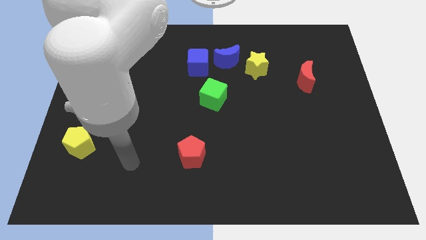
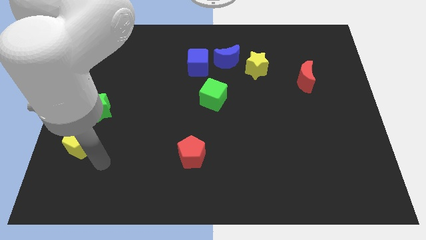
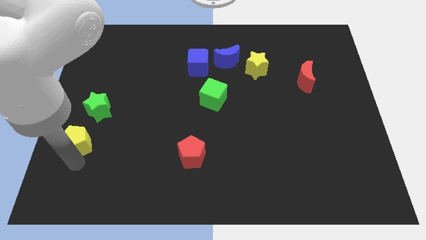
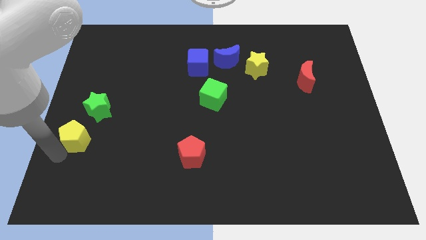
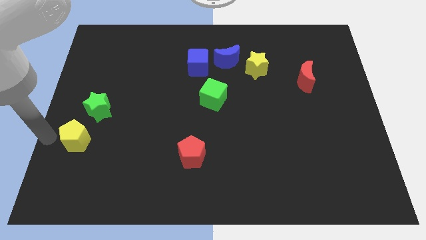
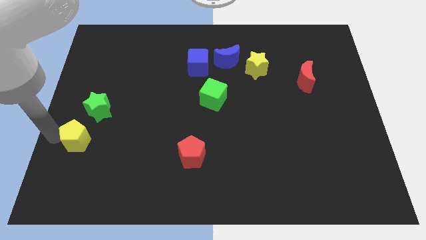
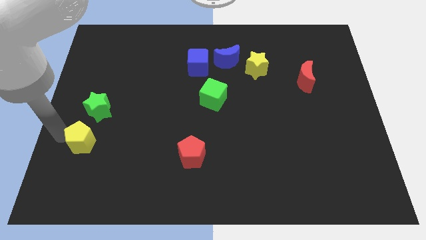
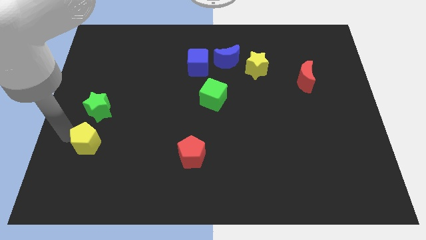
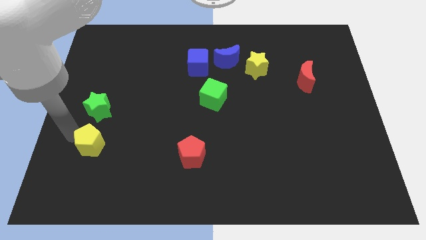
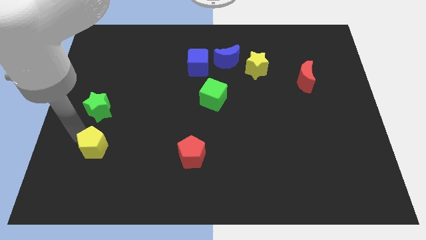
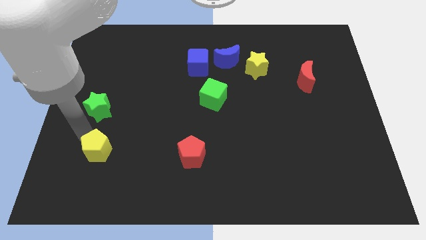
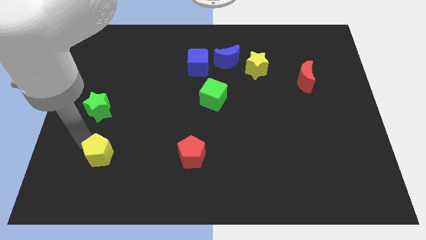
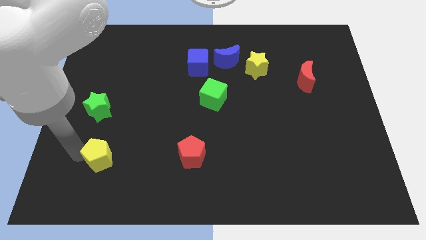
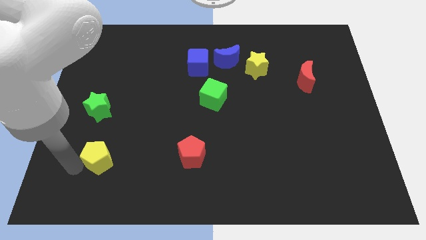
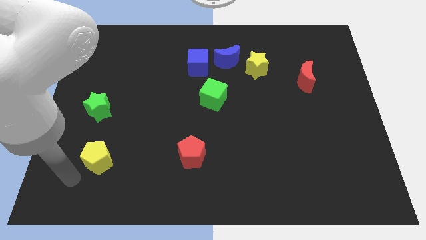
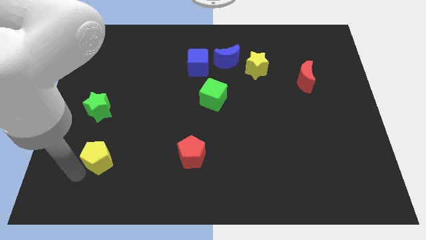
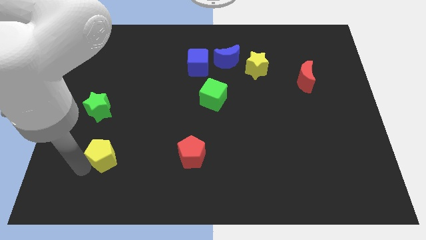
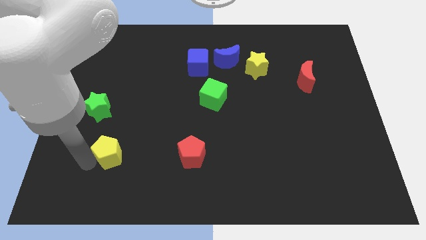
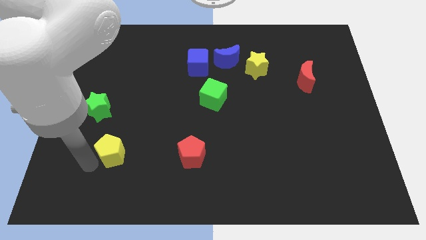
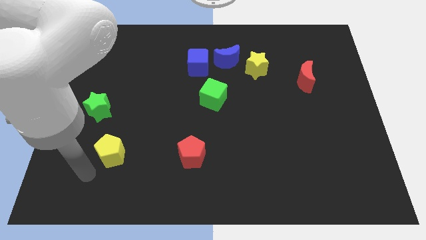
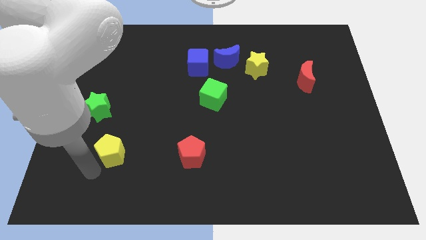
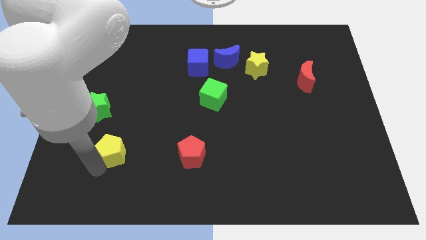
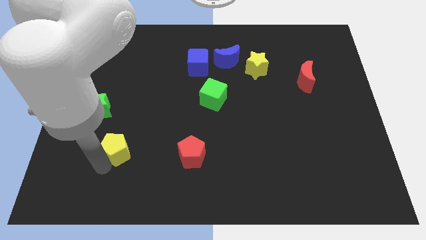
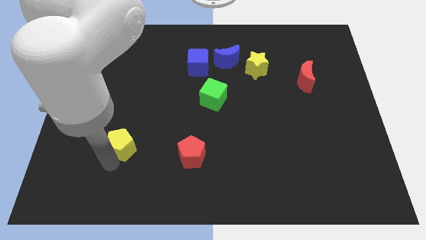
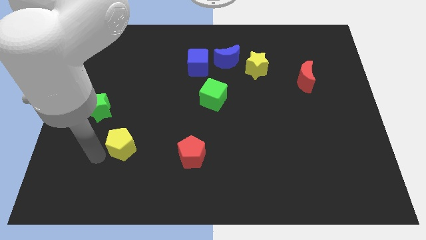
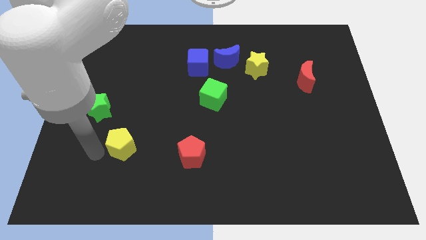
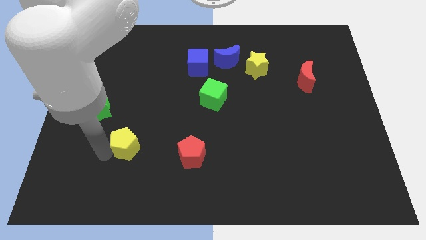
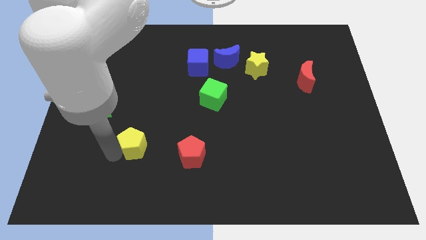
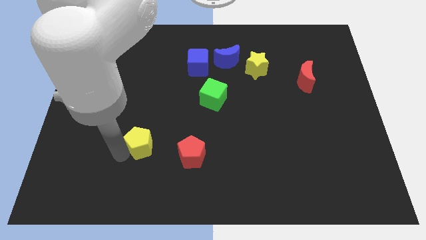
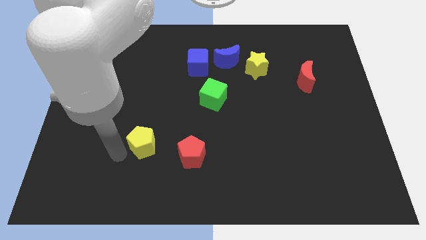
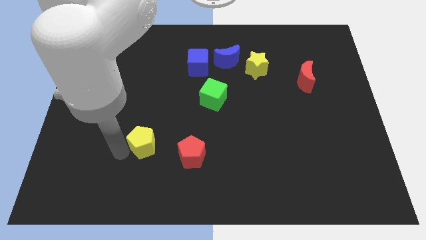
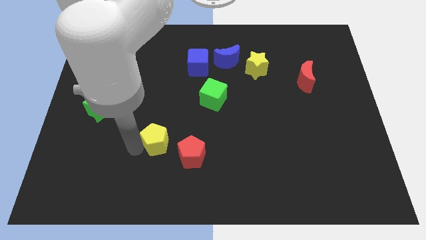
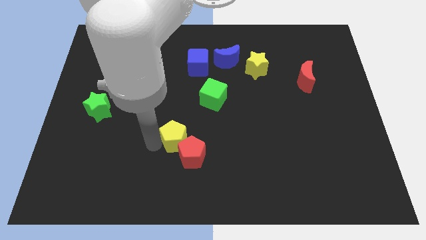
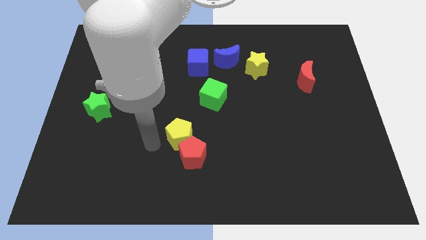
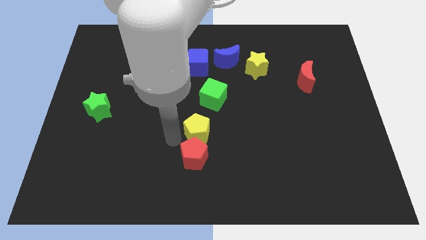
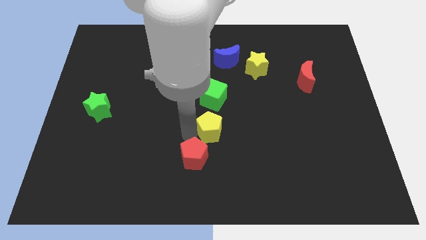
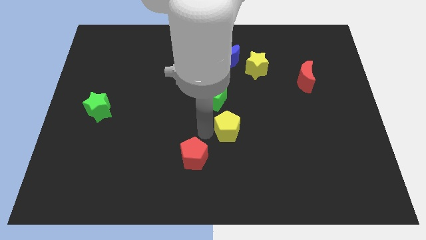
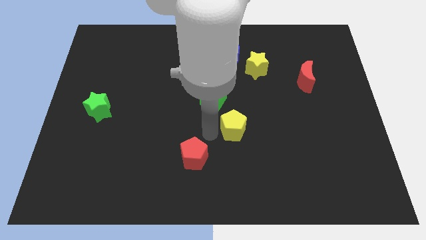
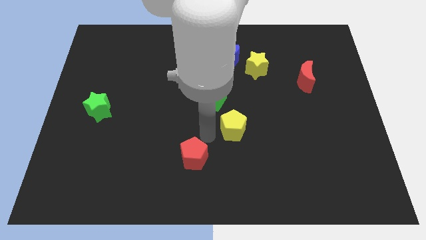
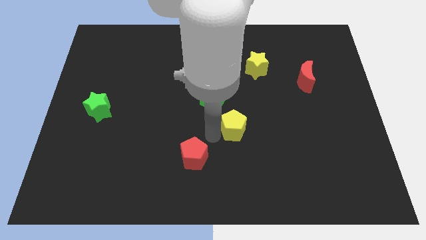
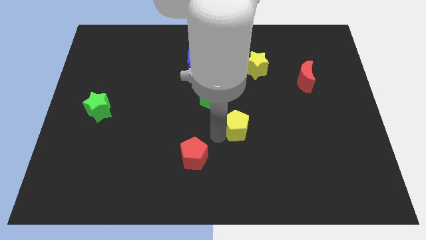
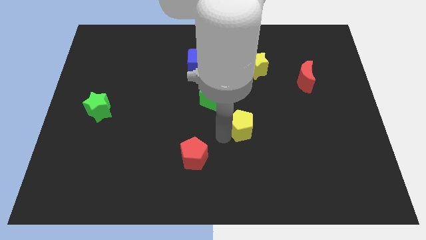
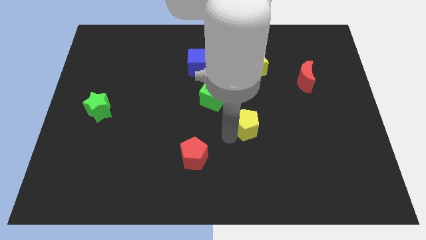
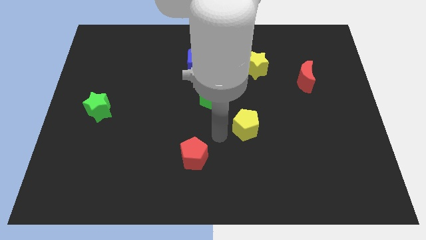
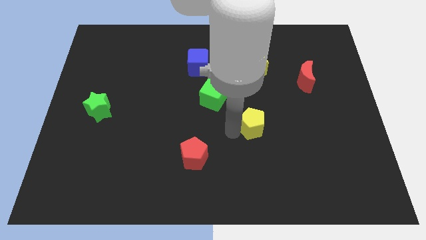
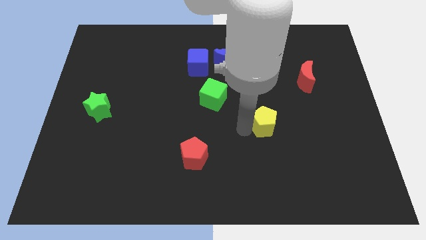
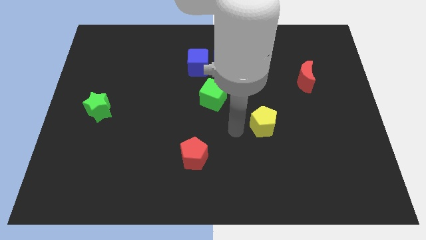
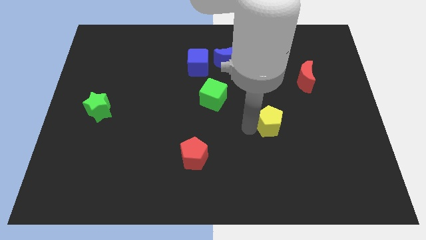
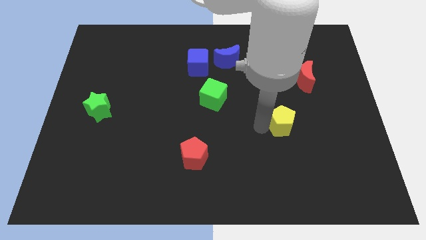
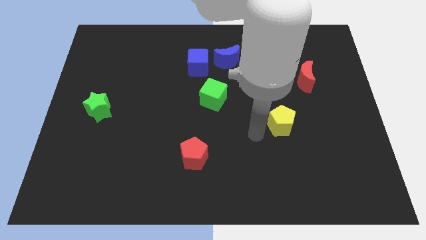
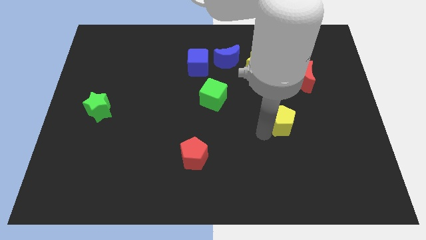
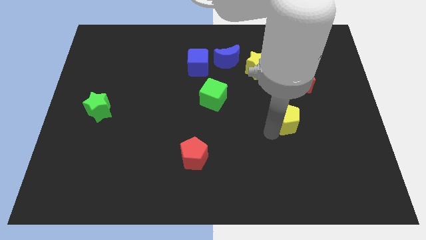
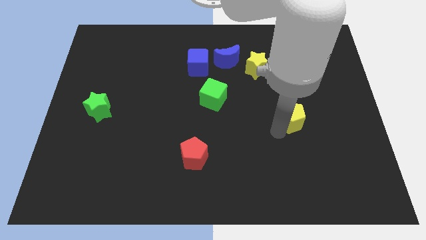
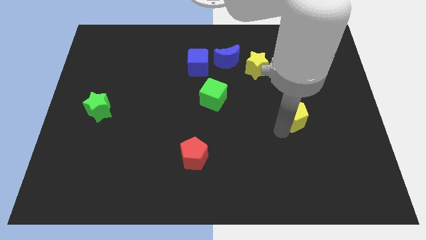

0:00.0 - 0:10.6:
move the yellow pentagon to the bottom of the red moon

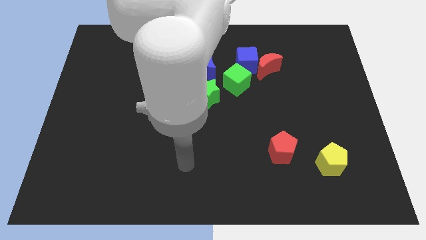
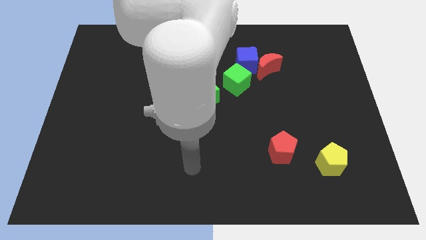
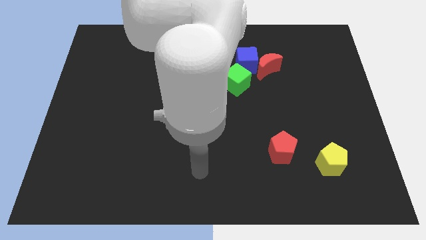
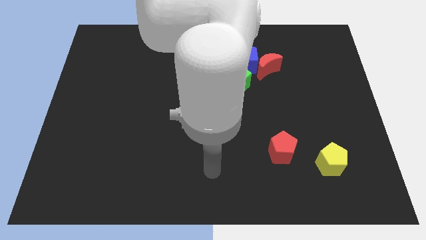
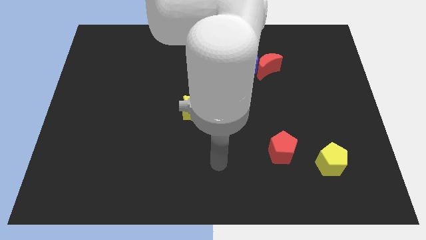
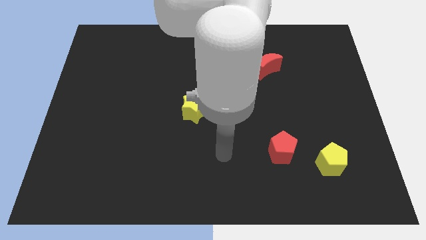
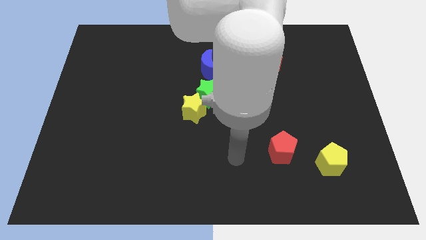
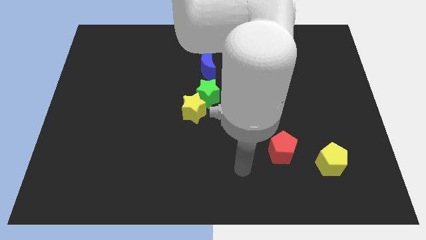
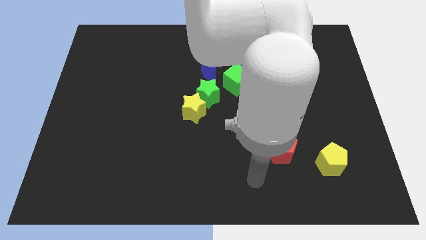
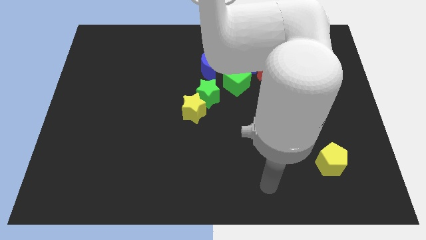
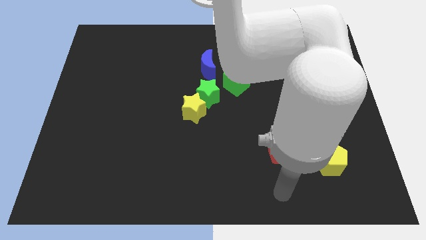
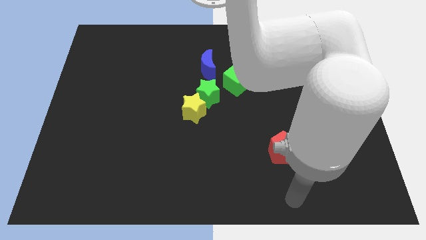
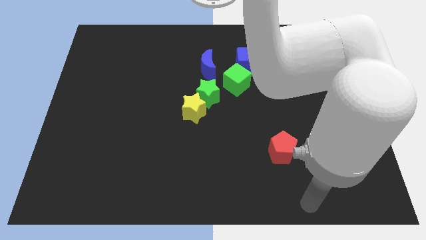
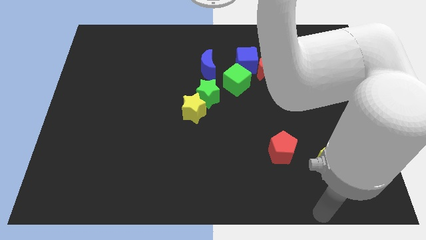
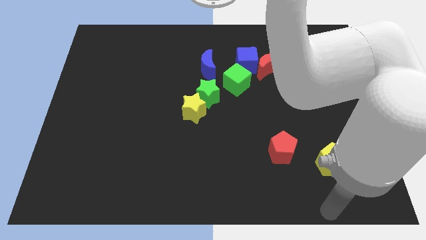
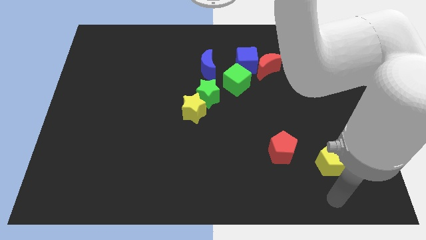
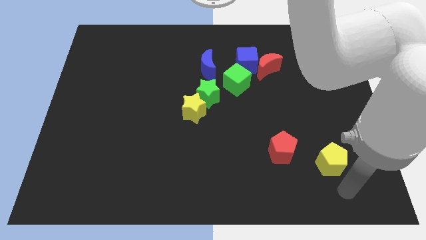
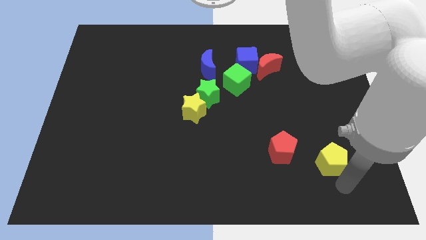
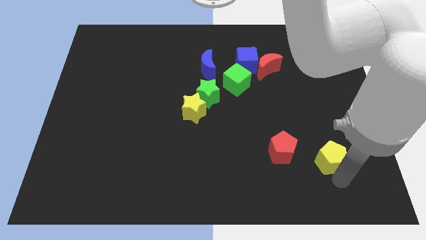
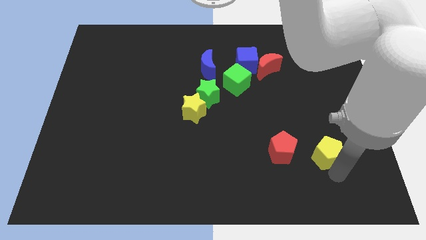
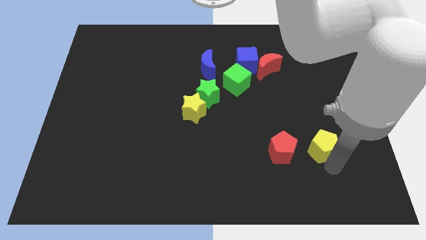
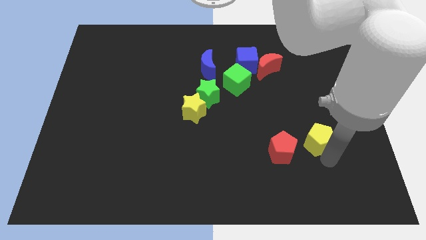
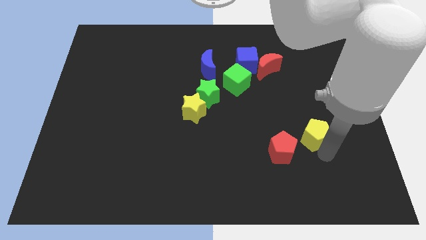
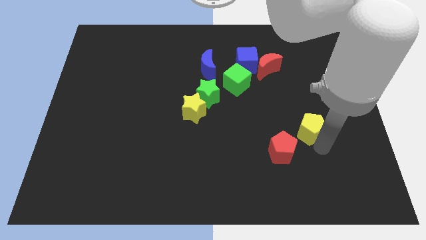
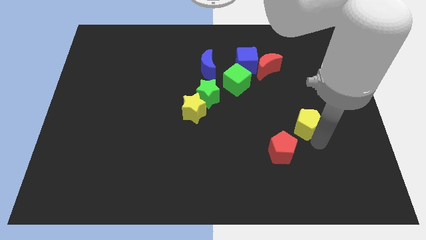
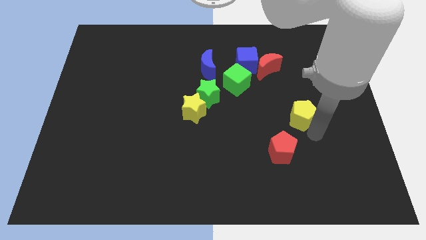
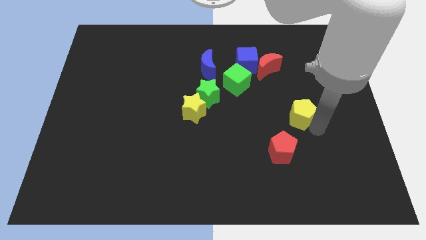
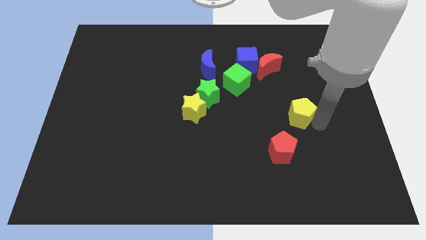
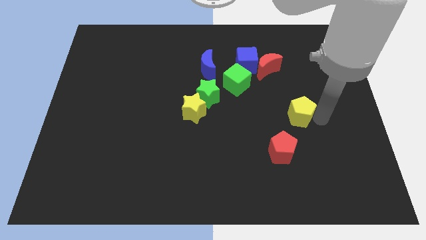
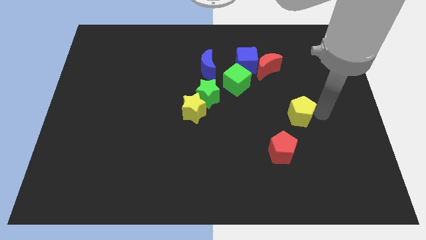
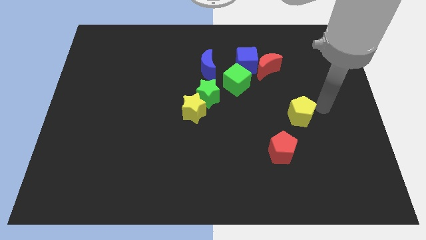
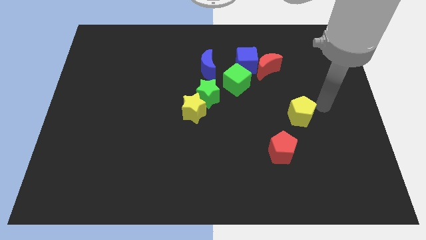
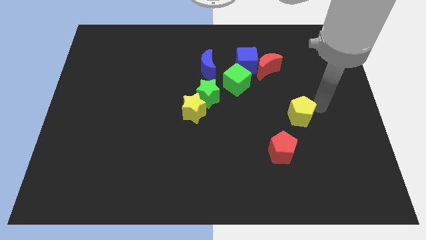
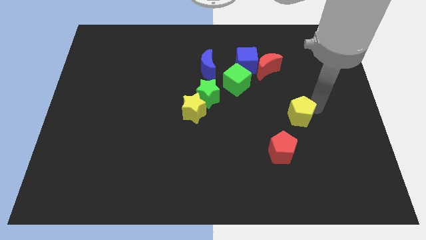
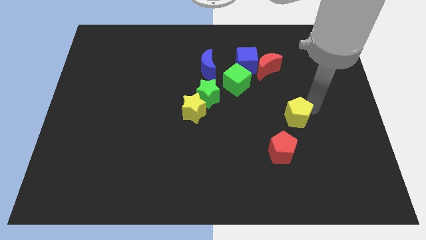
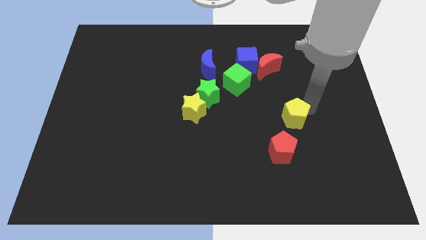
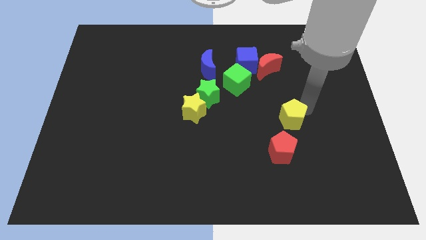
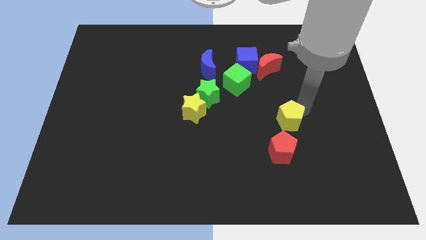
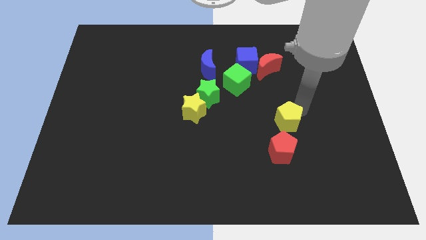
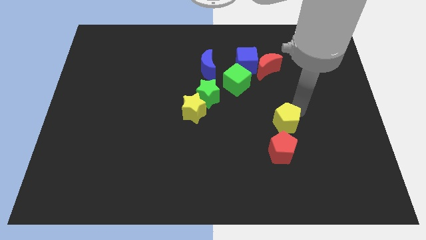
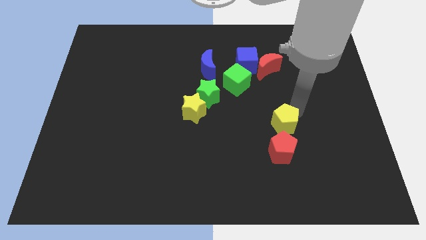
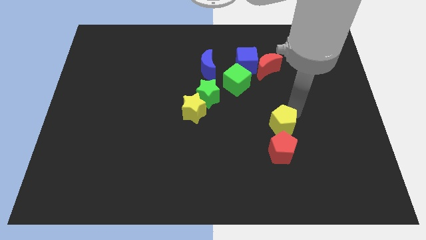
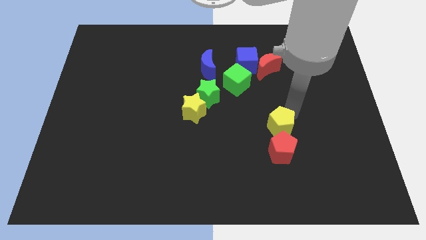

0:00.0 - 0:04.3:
slide the yellow pentagon to the top left of the red pentagon
